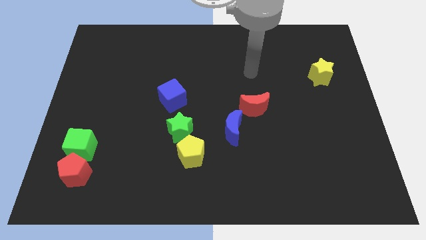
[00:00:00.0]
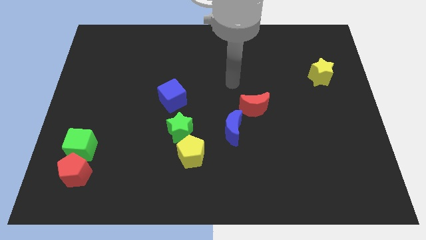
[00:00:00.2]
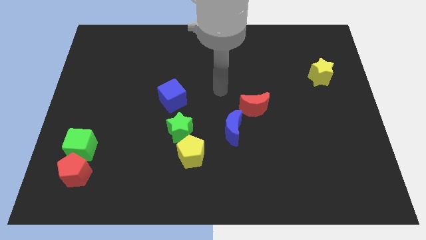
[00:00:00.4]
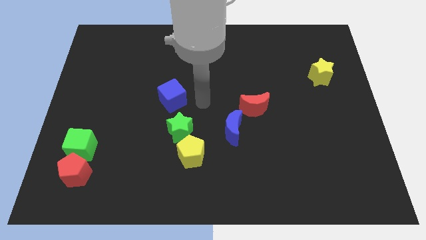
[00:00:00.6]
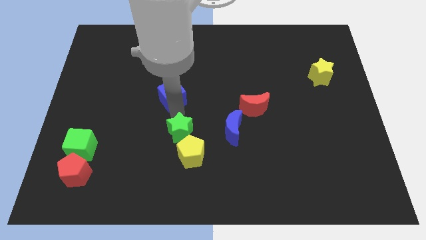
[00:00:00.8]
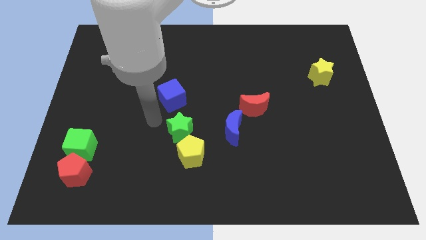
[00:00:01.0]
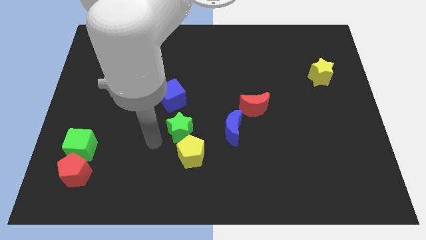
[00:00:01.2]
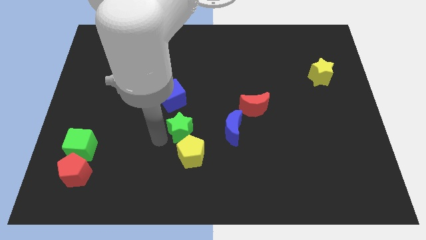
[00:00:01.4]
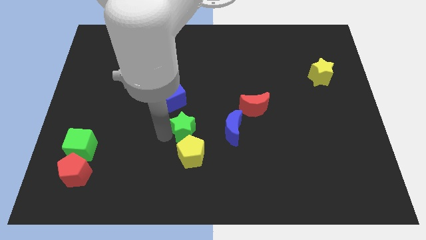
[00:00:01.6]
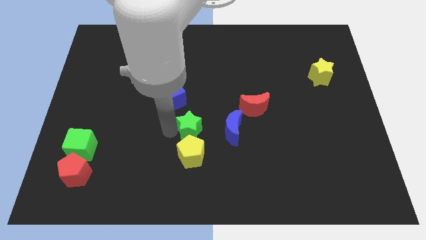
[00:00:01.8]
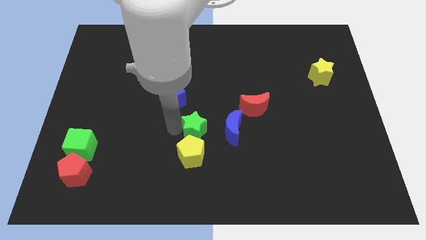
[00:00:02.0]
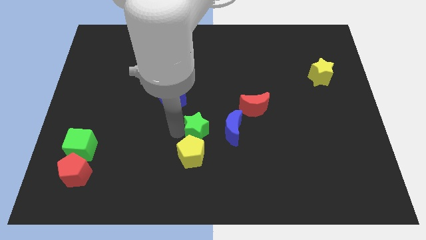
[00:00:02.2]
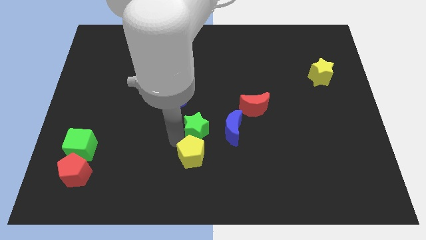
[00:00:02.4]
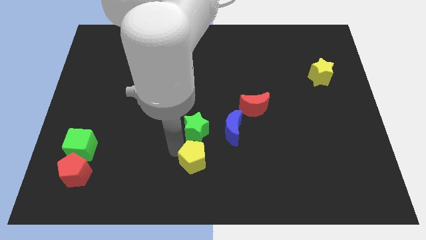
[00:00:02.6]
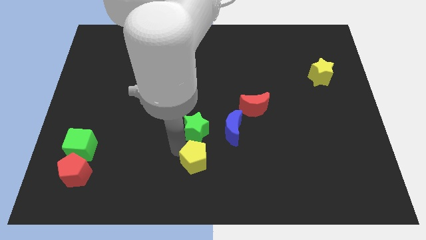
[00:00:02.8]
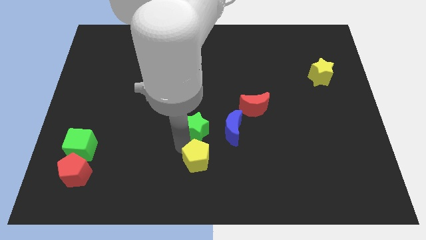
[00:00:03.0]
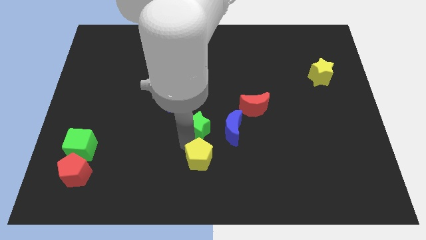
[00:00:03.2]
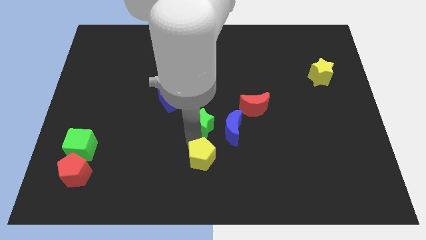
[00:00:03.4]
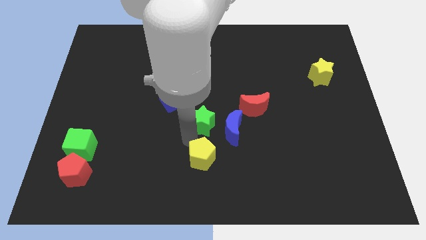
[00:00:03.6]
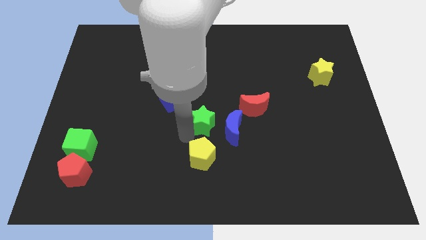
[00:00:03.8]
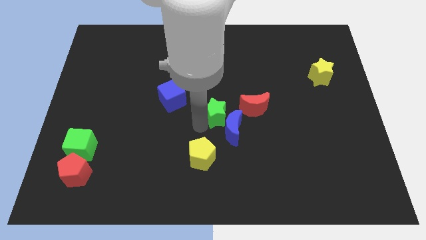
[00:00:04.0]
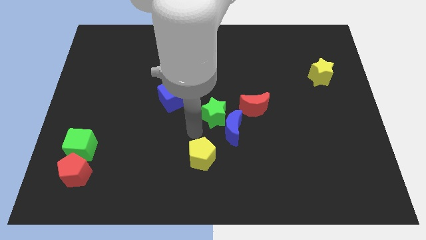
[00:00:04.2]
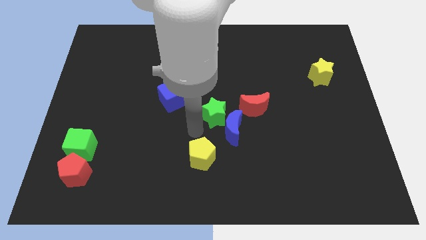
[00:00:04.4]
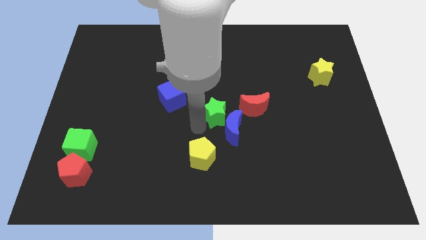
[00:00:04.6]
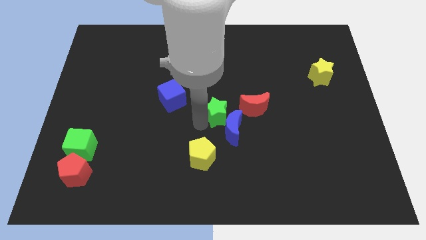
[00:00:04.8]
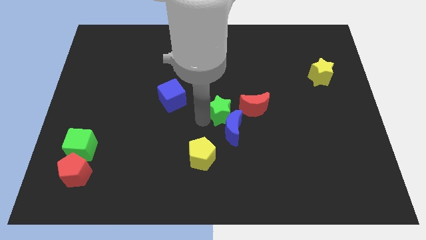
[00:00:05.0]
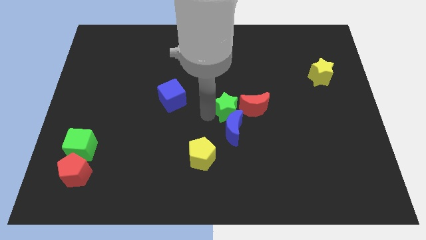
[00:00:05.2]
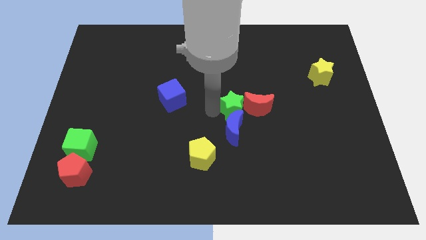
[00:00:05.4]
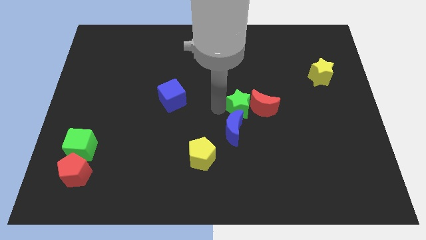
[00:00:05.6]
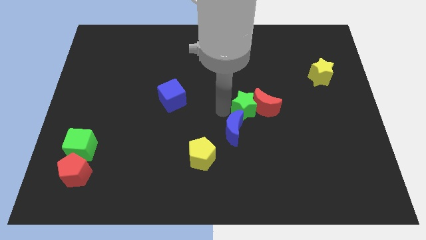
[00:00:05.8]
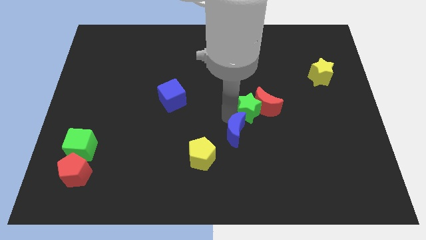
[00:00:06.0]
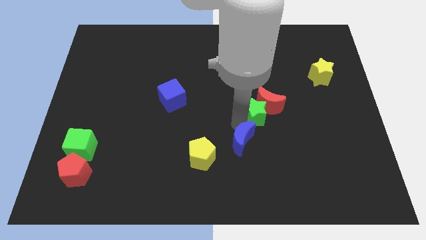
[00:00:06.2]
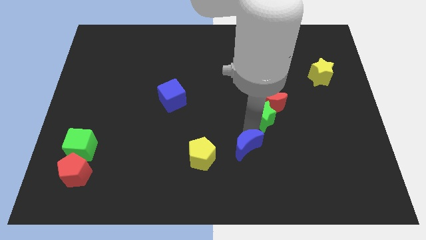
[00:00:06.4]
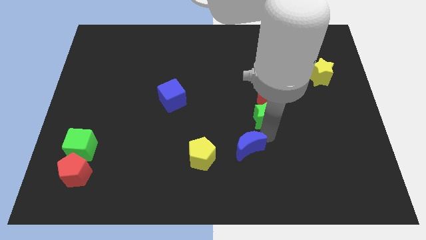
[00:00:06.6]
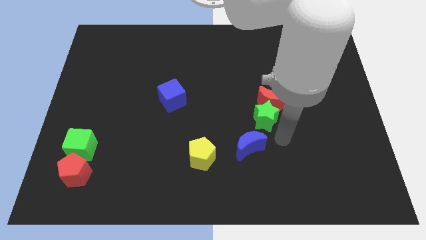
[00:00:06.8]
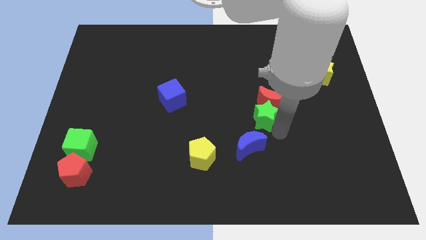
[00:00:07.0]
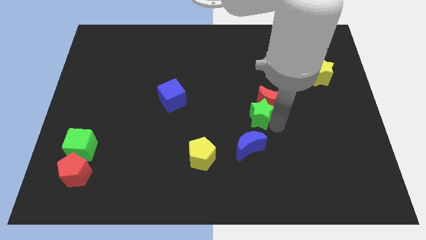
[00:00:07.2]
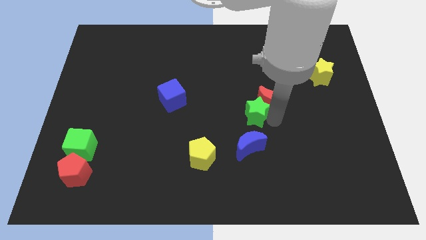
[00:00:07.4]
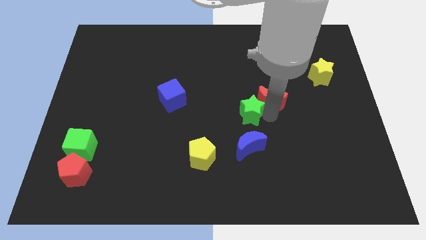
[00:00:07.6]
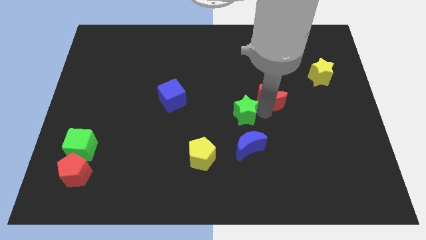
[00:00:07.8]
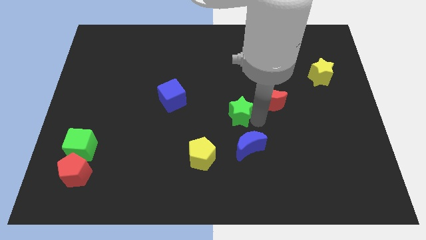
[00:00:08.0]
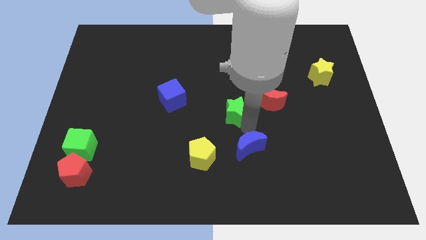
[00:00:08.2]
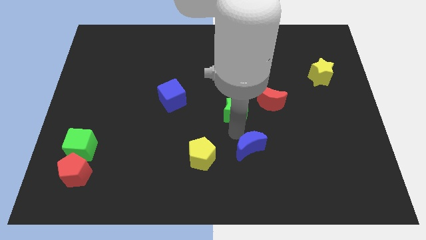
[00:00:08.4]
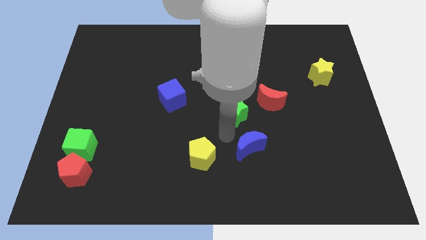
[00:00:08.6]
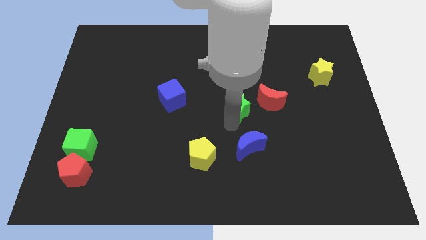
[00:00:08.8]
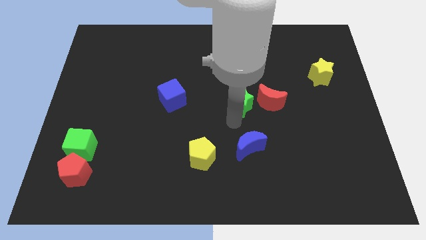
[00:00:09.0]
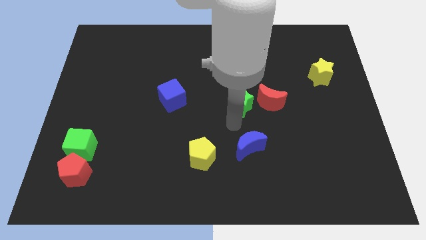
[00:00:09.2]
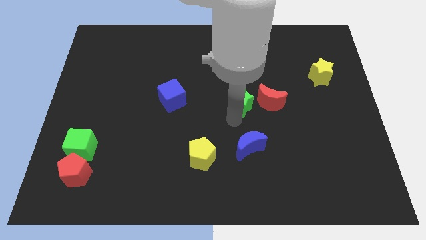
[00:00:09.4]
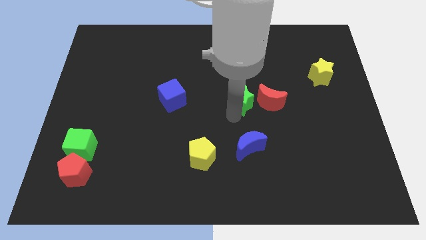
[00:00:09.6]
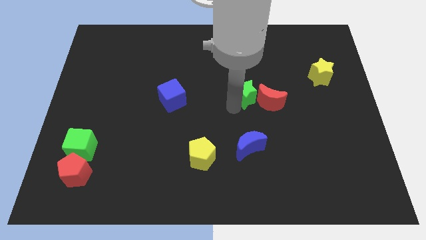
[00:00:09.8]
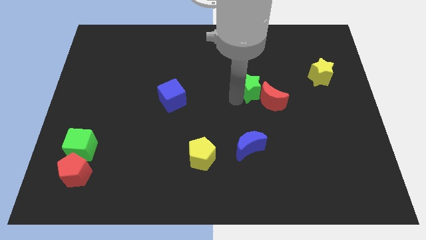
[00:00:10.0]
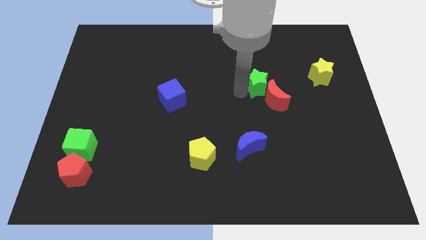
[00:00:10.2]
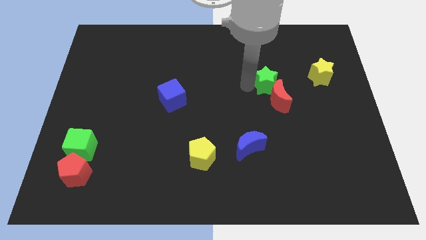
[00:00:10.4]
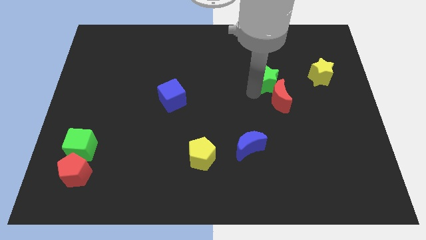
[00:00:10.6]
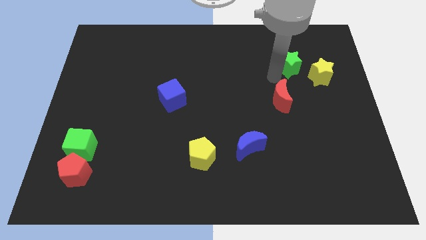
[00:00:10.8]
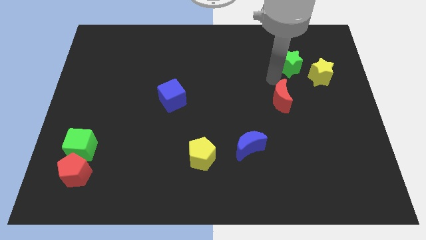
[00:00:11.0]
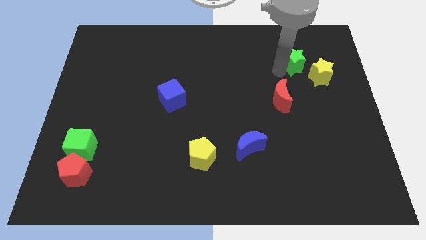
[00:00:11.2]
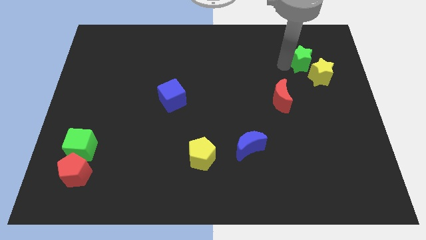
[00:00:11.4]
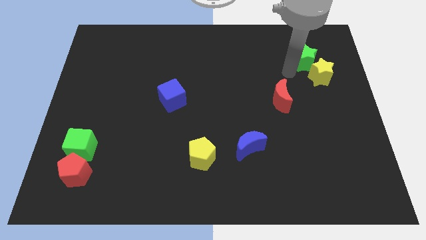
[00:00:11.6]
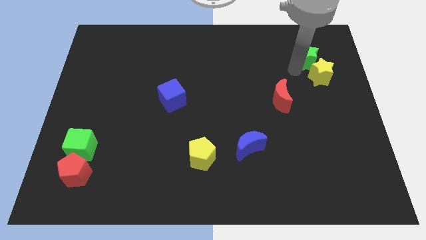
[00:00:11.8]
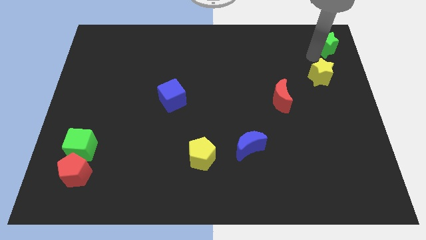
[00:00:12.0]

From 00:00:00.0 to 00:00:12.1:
push the green star to the top right

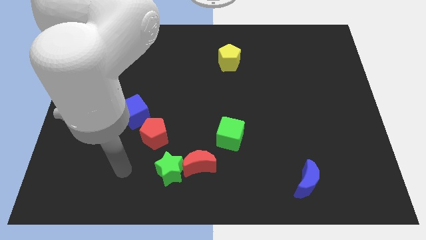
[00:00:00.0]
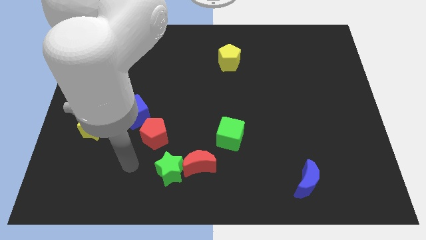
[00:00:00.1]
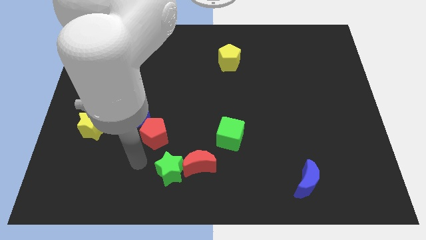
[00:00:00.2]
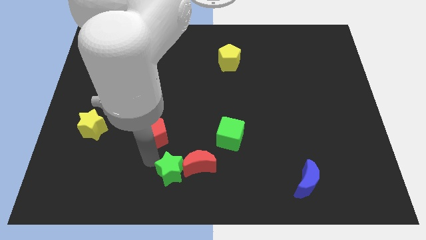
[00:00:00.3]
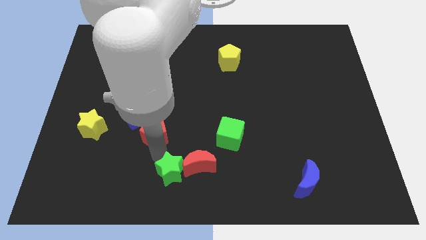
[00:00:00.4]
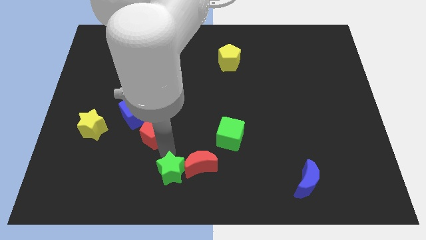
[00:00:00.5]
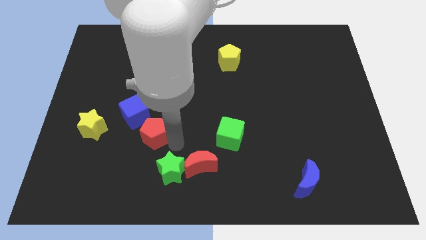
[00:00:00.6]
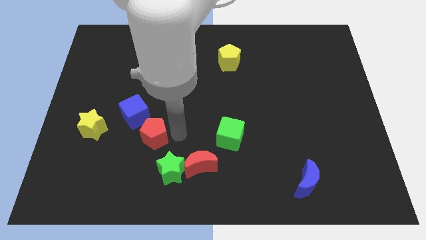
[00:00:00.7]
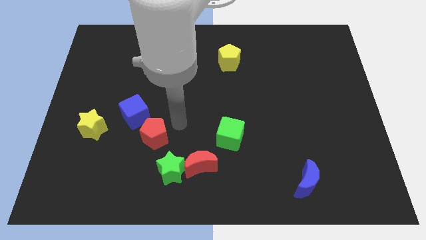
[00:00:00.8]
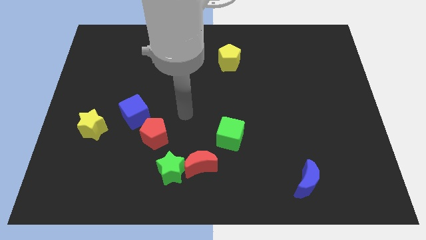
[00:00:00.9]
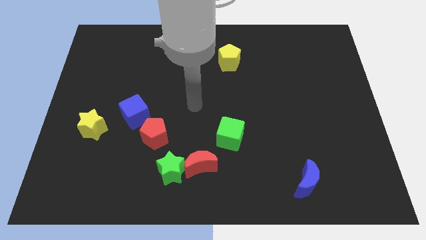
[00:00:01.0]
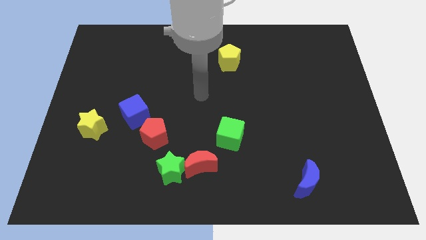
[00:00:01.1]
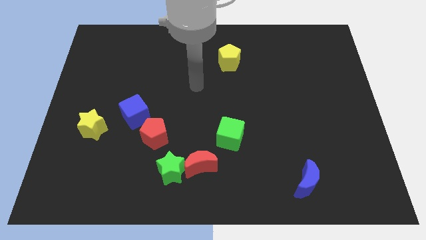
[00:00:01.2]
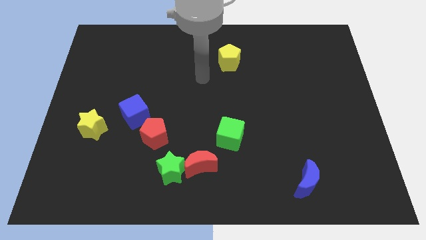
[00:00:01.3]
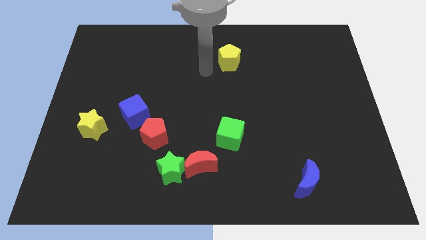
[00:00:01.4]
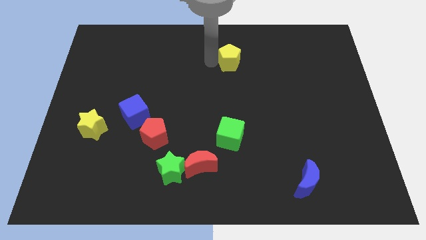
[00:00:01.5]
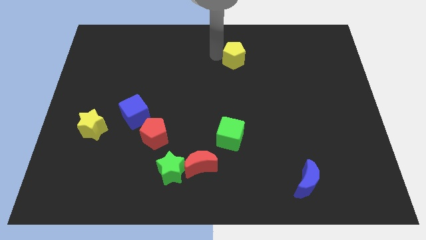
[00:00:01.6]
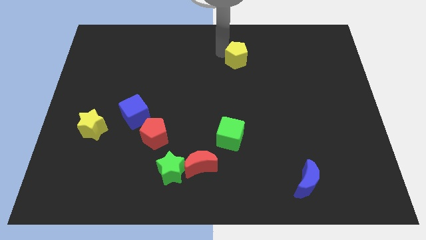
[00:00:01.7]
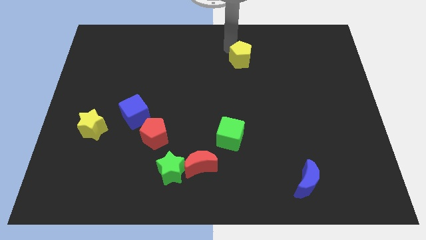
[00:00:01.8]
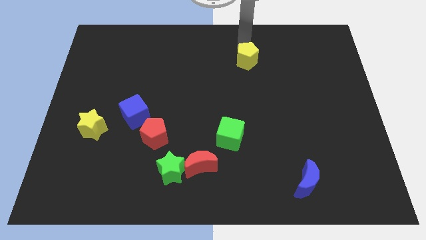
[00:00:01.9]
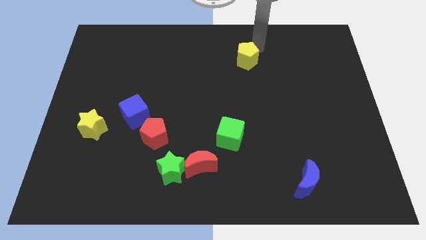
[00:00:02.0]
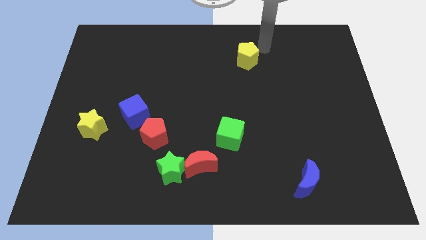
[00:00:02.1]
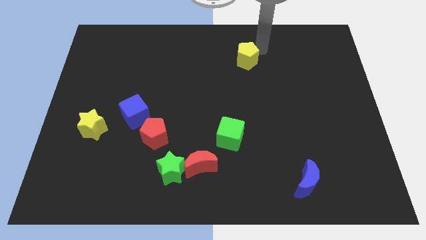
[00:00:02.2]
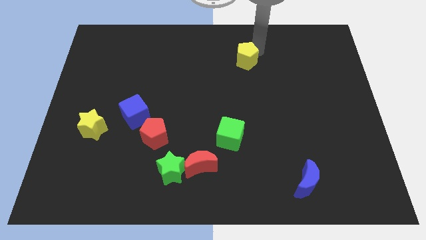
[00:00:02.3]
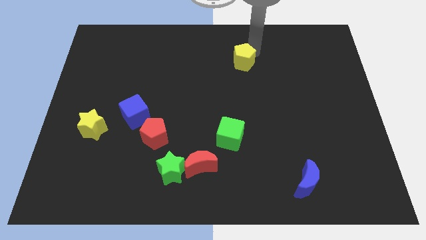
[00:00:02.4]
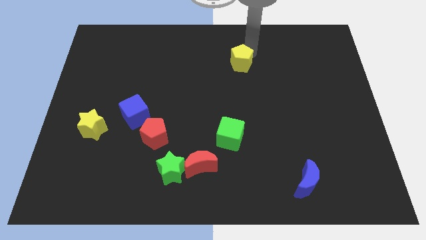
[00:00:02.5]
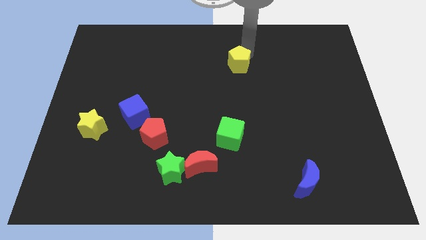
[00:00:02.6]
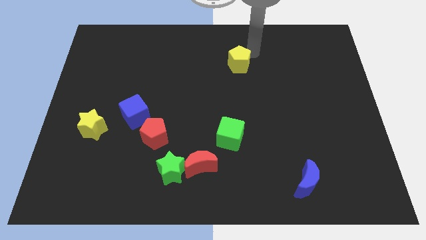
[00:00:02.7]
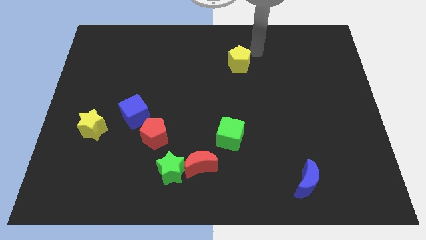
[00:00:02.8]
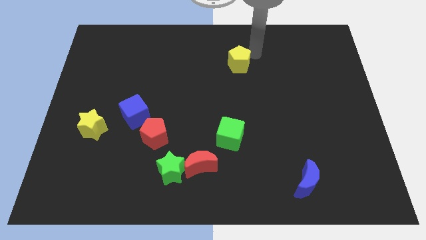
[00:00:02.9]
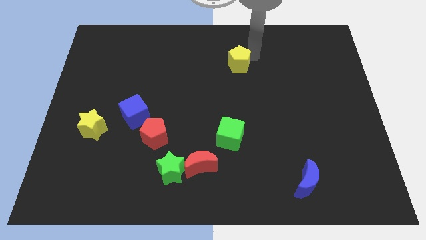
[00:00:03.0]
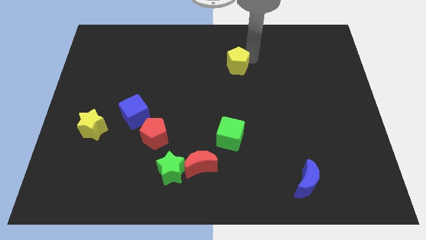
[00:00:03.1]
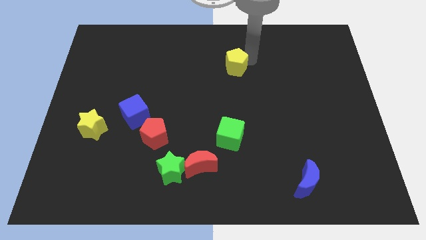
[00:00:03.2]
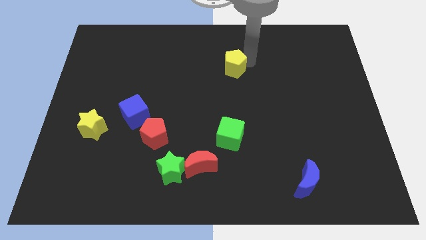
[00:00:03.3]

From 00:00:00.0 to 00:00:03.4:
move the yellow pentagon to the middle of the board
